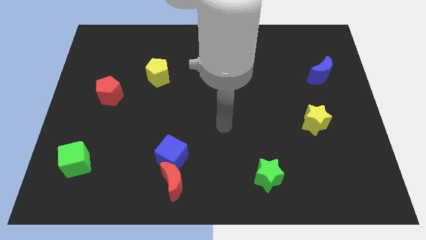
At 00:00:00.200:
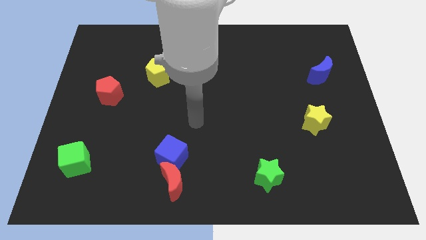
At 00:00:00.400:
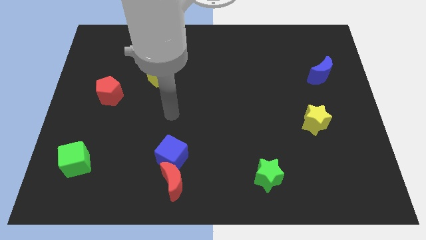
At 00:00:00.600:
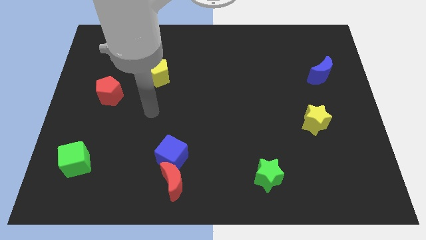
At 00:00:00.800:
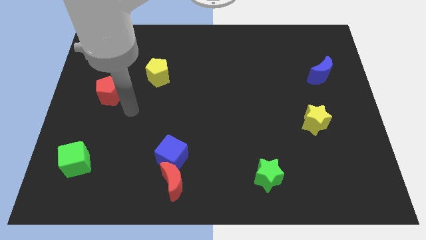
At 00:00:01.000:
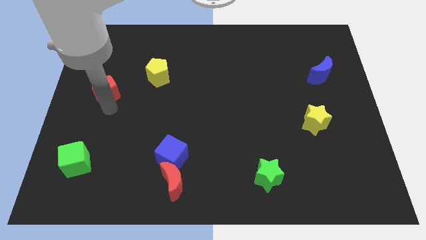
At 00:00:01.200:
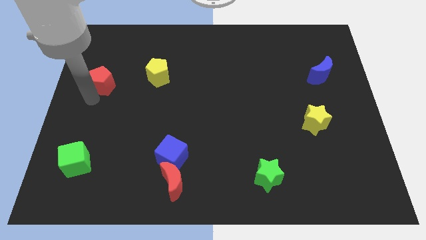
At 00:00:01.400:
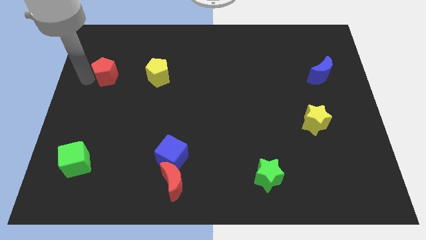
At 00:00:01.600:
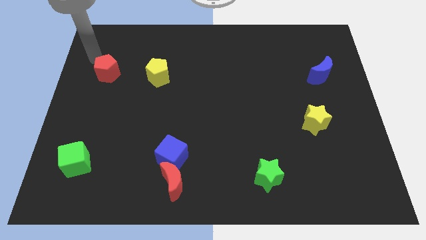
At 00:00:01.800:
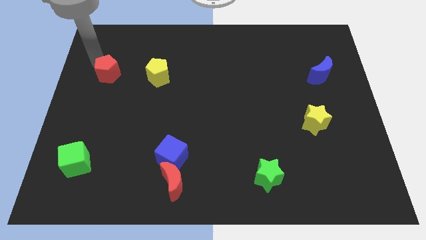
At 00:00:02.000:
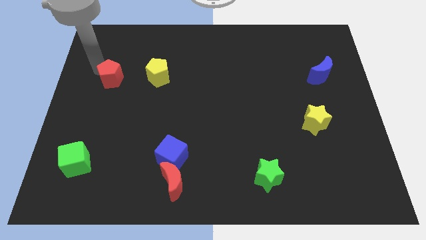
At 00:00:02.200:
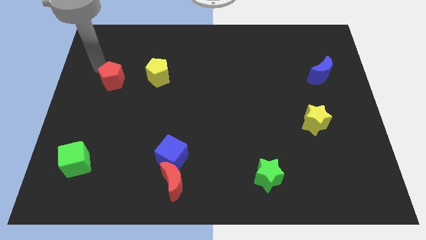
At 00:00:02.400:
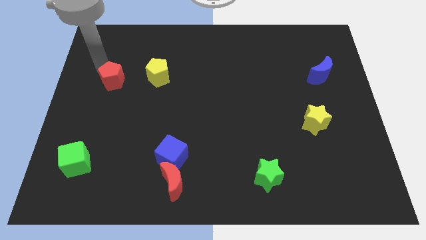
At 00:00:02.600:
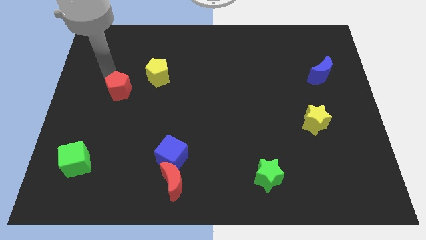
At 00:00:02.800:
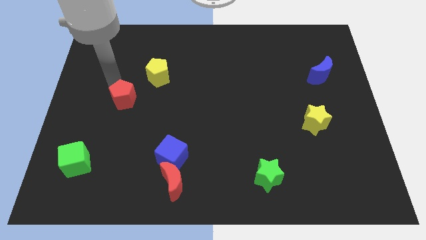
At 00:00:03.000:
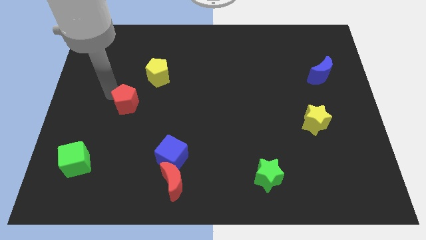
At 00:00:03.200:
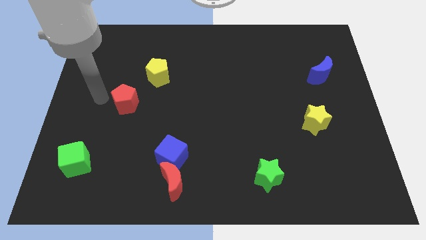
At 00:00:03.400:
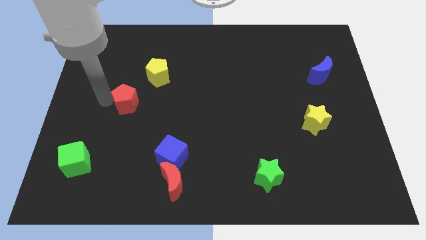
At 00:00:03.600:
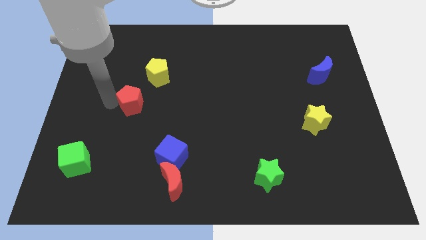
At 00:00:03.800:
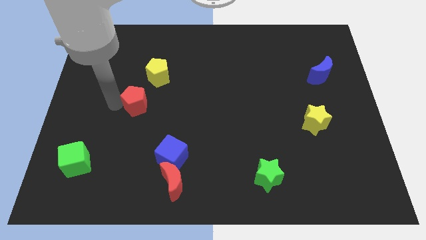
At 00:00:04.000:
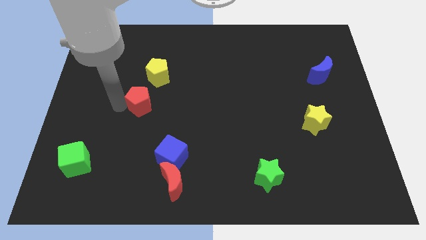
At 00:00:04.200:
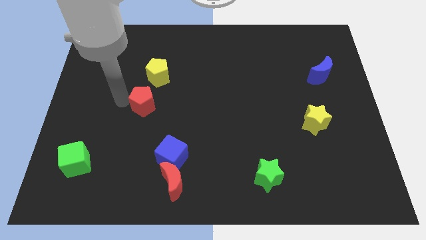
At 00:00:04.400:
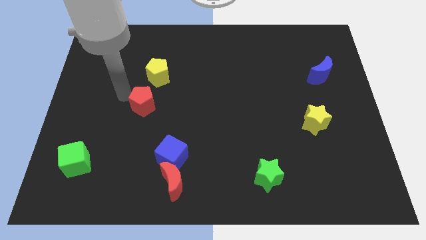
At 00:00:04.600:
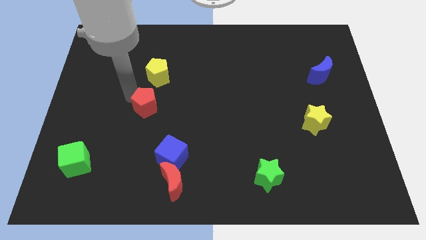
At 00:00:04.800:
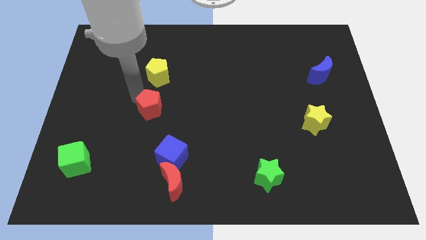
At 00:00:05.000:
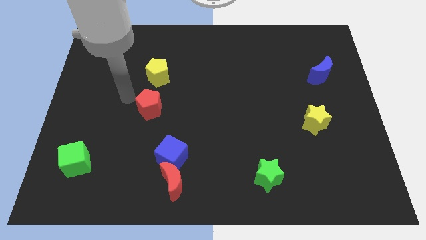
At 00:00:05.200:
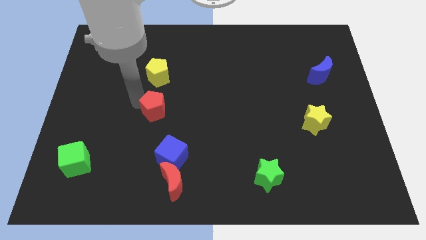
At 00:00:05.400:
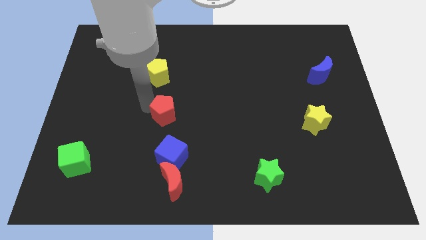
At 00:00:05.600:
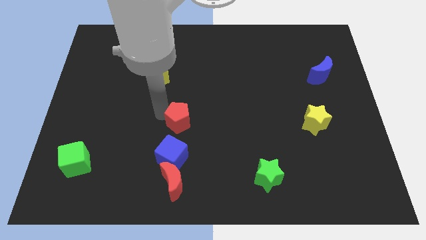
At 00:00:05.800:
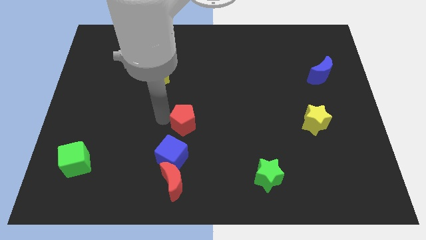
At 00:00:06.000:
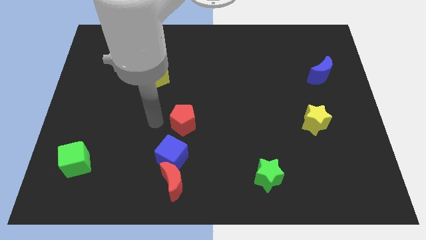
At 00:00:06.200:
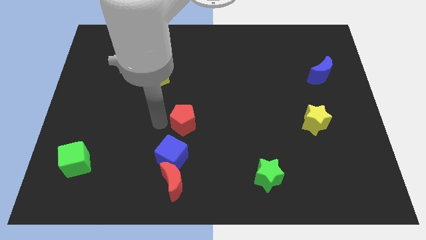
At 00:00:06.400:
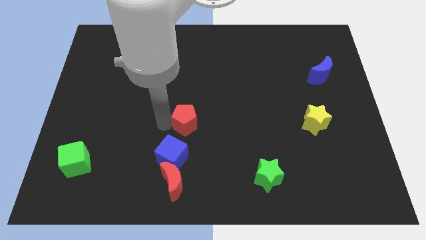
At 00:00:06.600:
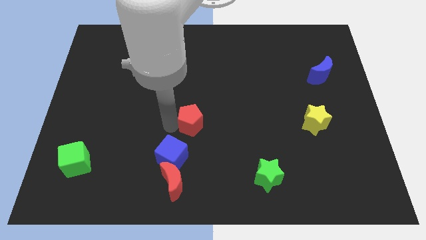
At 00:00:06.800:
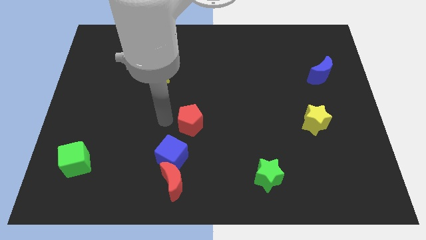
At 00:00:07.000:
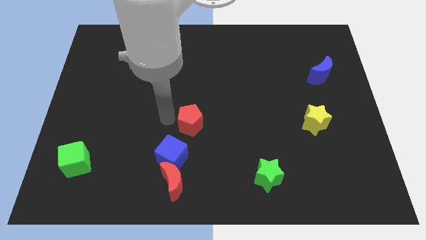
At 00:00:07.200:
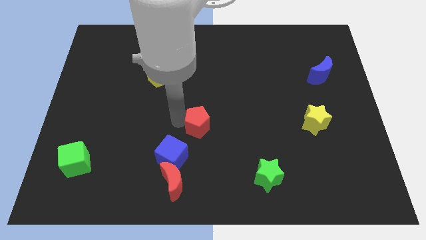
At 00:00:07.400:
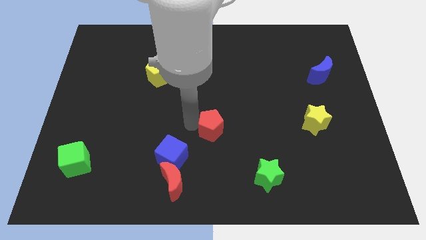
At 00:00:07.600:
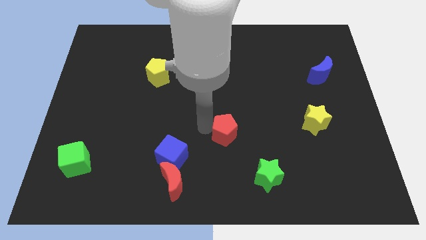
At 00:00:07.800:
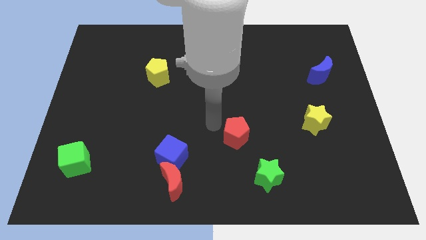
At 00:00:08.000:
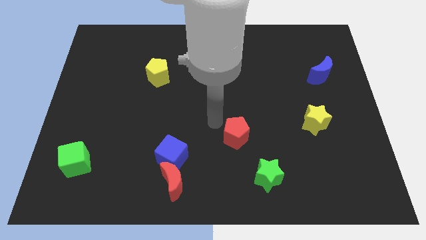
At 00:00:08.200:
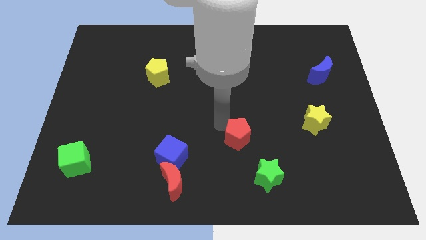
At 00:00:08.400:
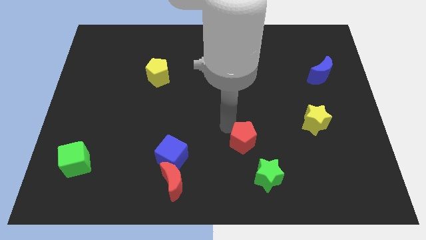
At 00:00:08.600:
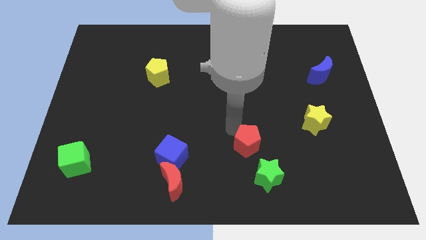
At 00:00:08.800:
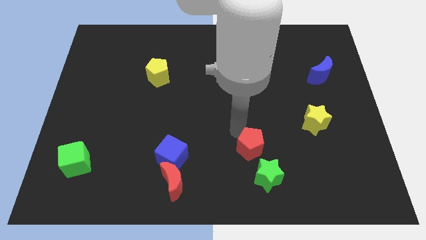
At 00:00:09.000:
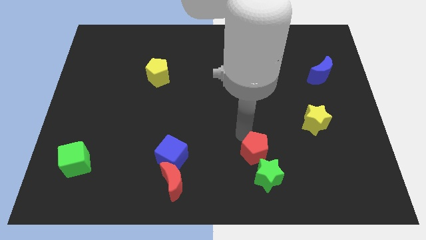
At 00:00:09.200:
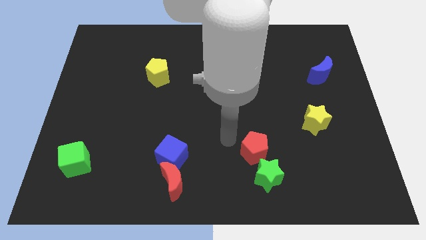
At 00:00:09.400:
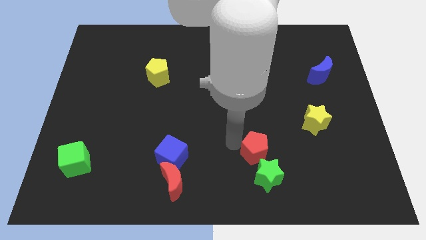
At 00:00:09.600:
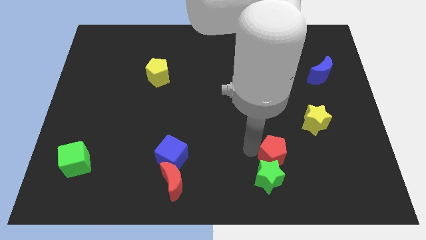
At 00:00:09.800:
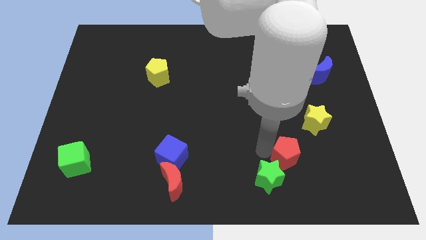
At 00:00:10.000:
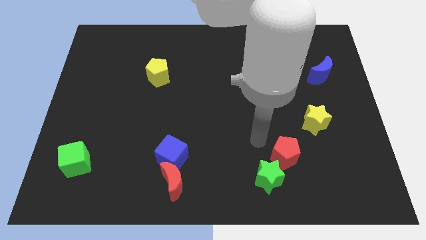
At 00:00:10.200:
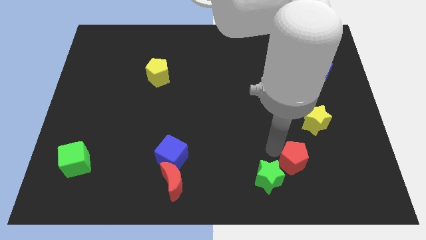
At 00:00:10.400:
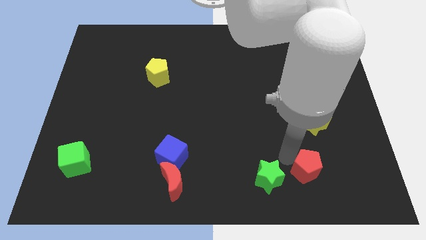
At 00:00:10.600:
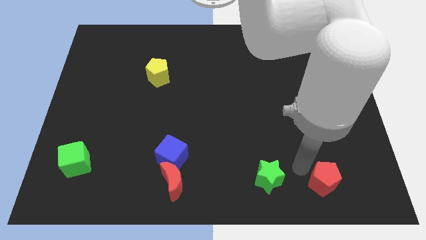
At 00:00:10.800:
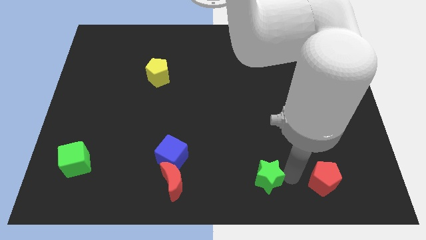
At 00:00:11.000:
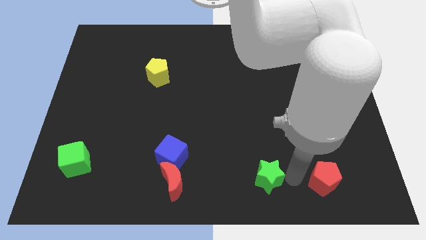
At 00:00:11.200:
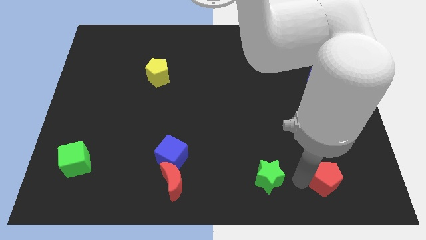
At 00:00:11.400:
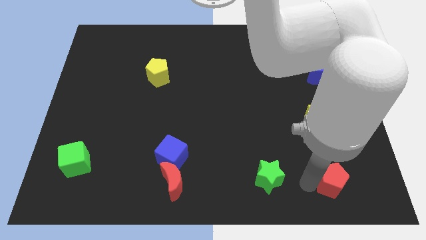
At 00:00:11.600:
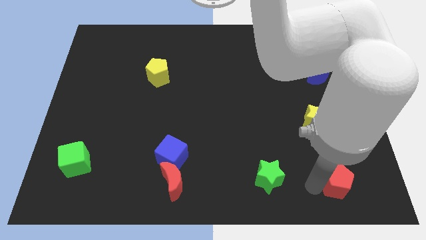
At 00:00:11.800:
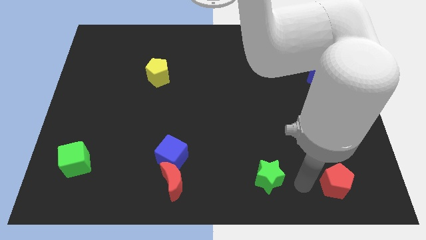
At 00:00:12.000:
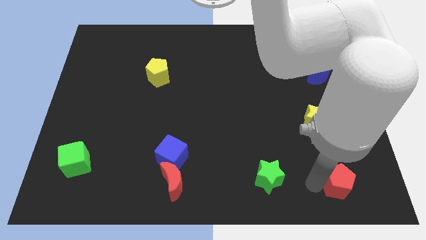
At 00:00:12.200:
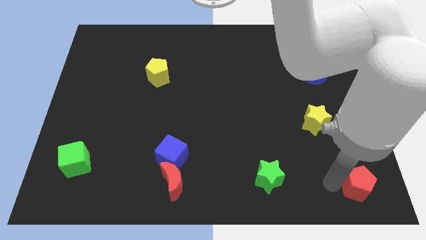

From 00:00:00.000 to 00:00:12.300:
slide the red pentagon to the bottom right

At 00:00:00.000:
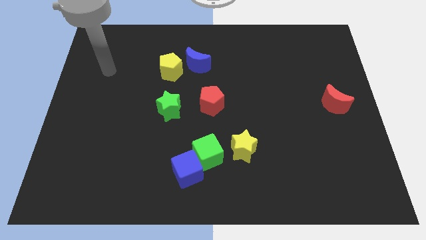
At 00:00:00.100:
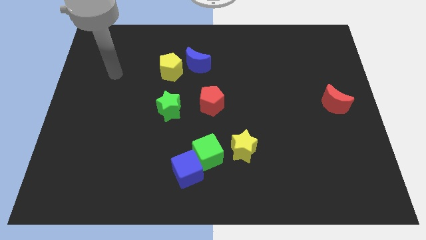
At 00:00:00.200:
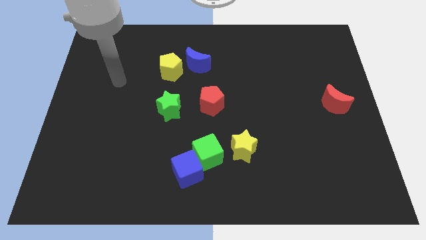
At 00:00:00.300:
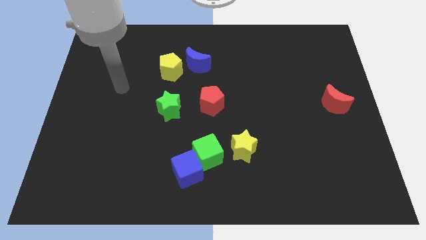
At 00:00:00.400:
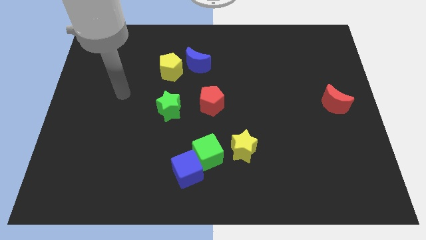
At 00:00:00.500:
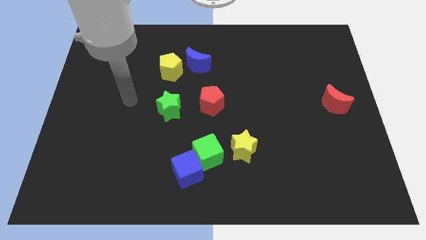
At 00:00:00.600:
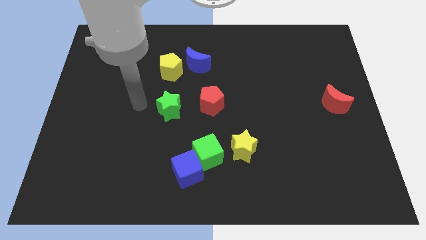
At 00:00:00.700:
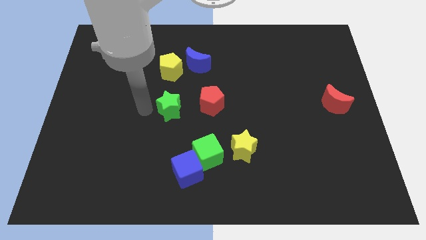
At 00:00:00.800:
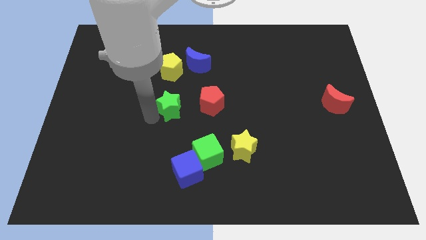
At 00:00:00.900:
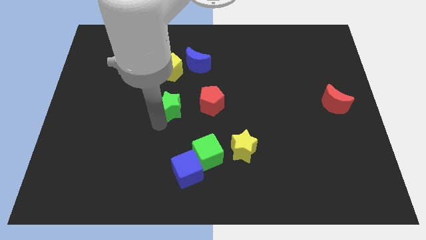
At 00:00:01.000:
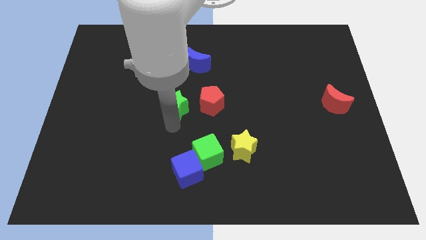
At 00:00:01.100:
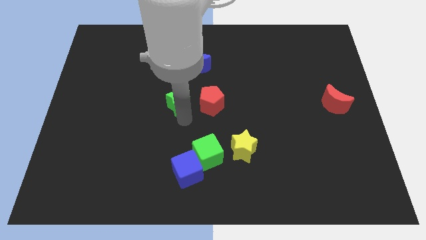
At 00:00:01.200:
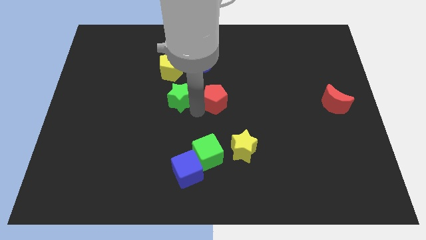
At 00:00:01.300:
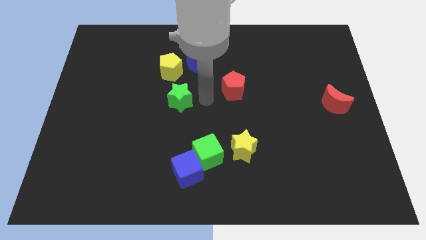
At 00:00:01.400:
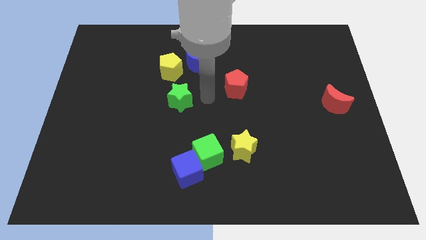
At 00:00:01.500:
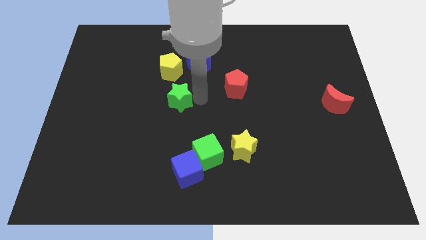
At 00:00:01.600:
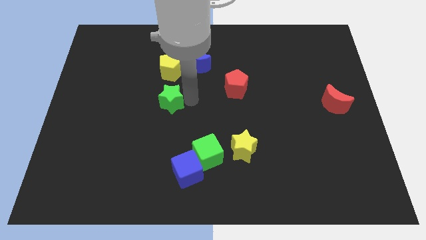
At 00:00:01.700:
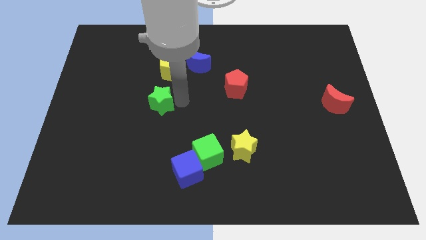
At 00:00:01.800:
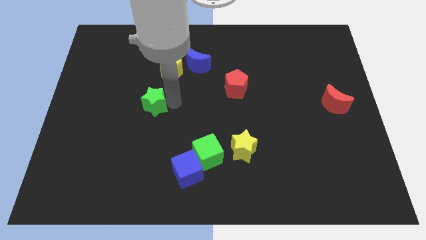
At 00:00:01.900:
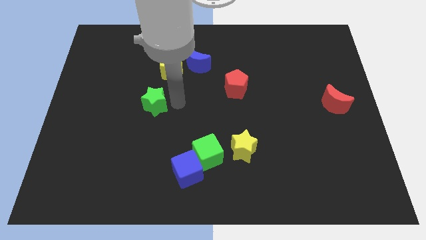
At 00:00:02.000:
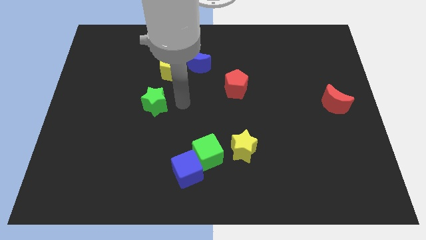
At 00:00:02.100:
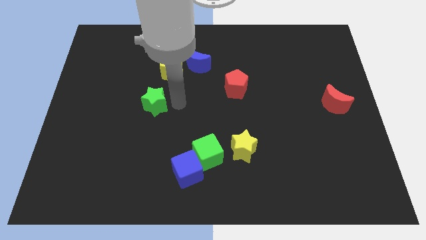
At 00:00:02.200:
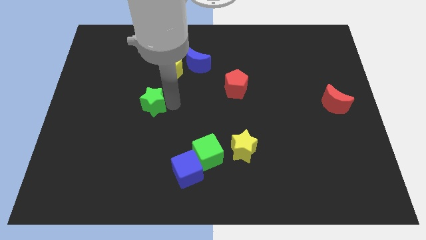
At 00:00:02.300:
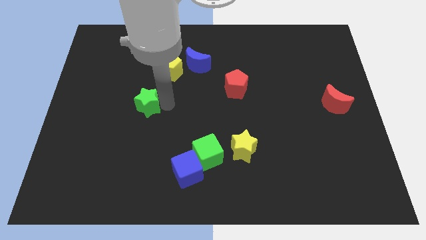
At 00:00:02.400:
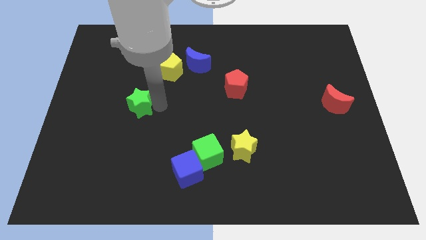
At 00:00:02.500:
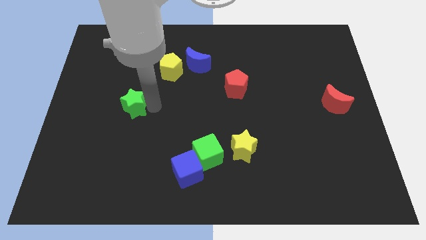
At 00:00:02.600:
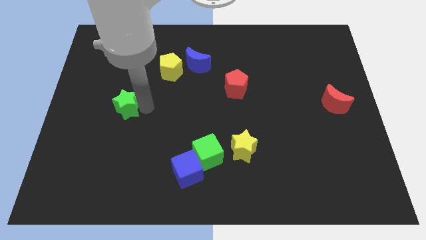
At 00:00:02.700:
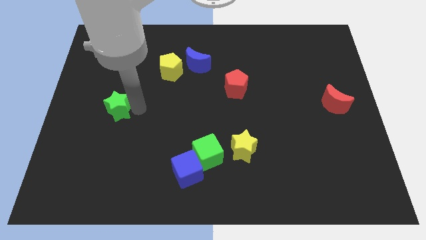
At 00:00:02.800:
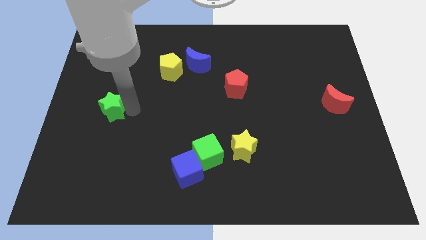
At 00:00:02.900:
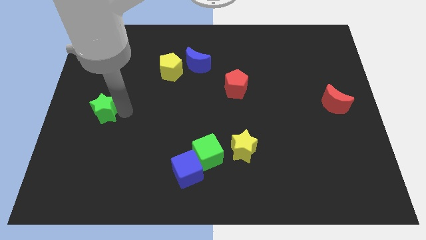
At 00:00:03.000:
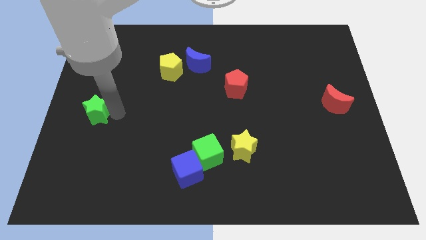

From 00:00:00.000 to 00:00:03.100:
slide the green star to the left side
